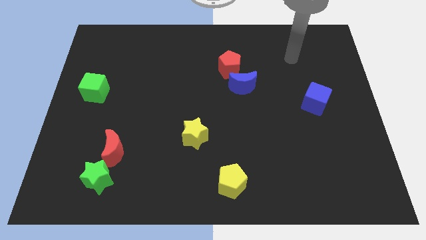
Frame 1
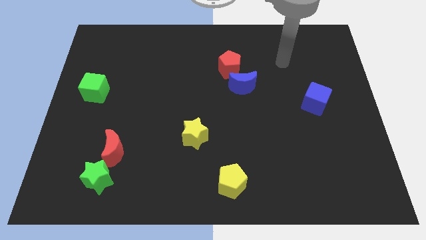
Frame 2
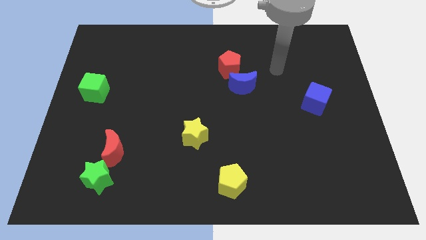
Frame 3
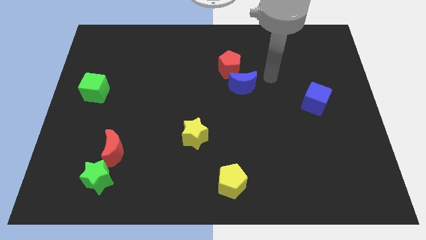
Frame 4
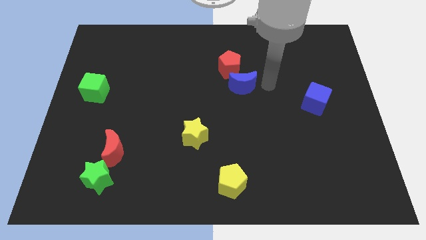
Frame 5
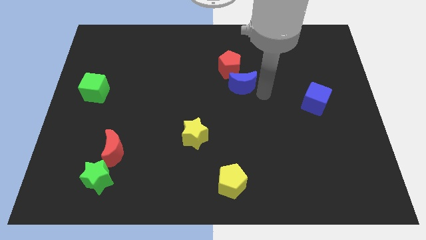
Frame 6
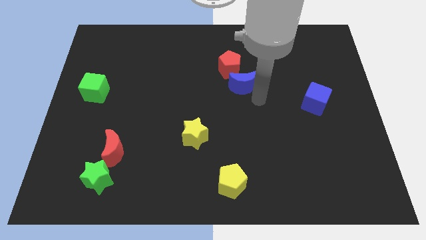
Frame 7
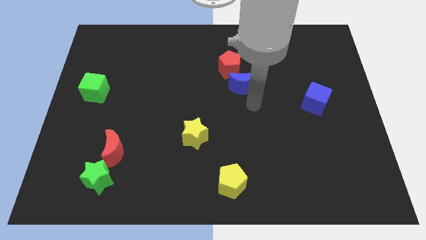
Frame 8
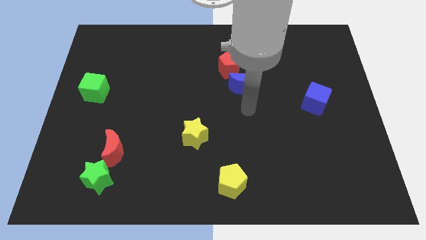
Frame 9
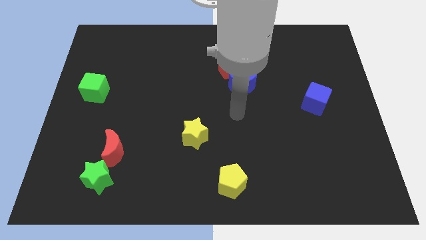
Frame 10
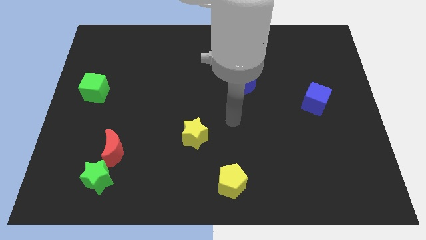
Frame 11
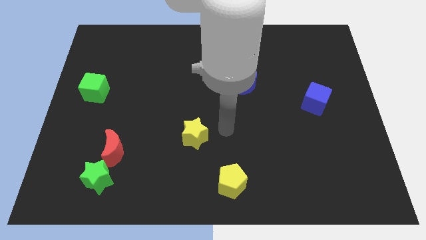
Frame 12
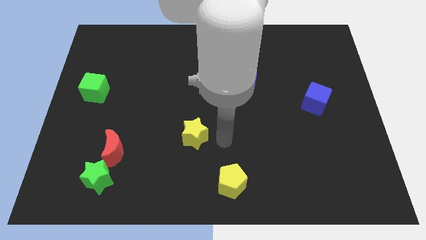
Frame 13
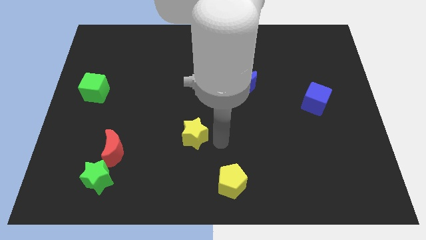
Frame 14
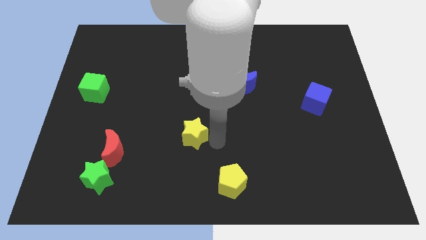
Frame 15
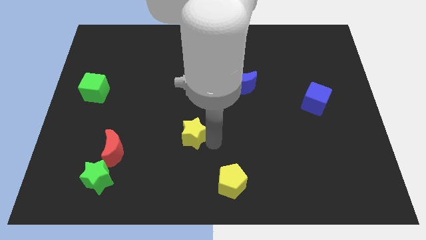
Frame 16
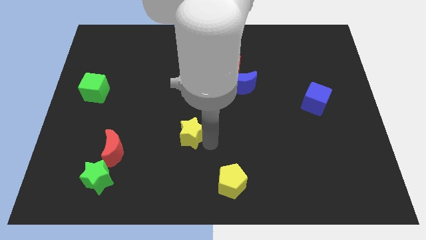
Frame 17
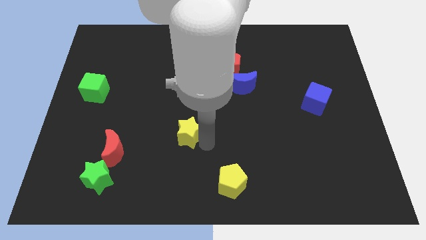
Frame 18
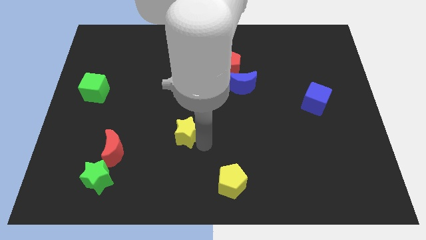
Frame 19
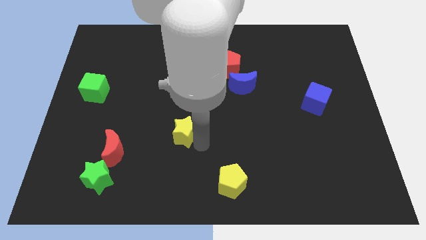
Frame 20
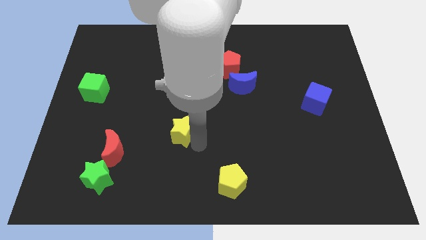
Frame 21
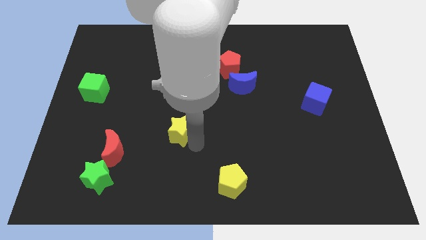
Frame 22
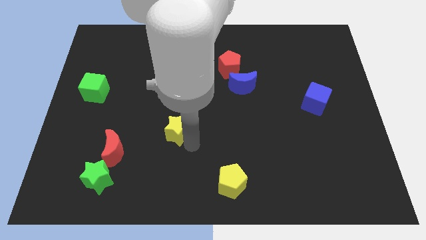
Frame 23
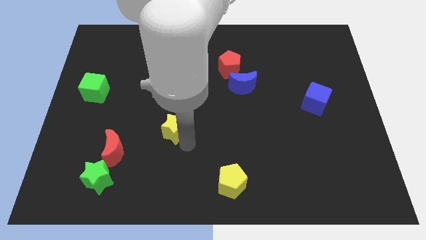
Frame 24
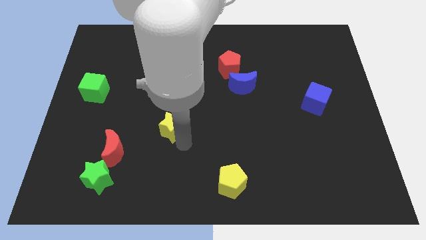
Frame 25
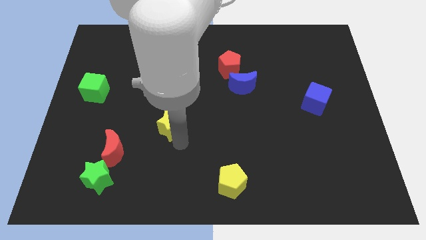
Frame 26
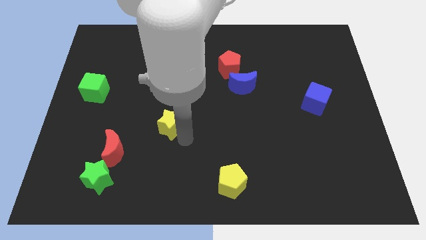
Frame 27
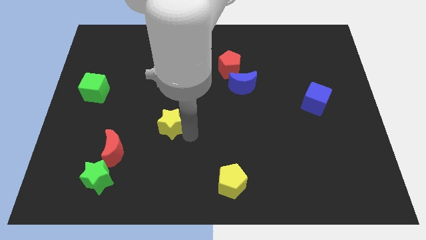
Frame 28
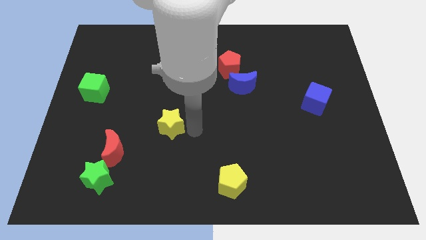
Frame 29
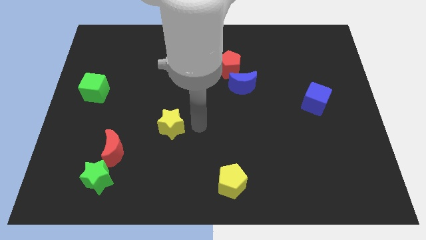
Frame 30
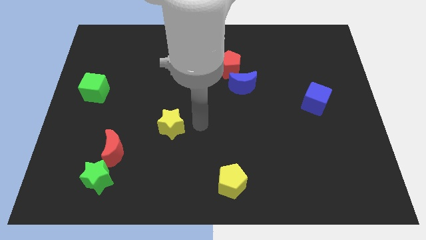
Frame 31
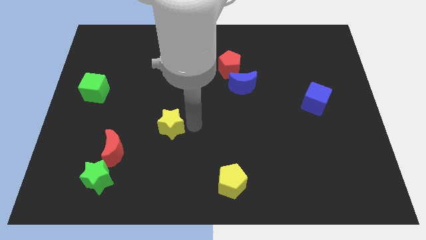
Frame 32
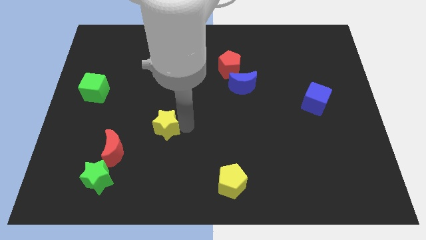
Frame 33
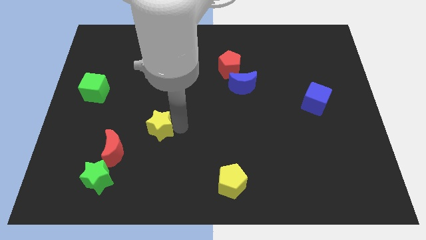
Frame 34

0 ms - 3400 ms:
slightly push the yellow star left

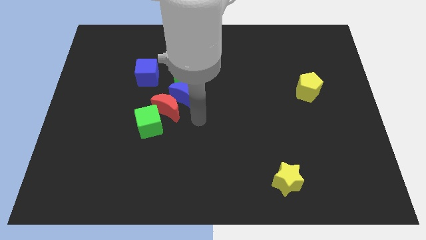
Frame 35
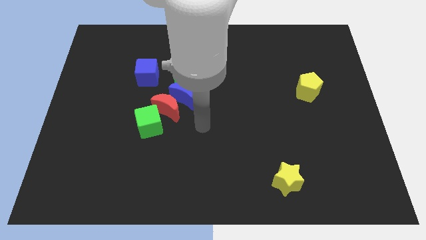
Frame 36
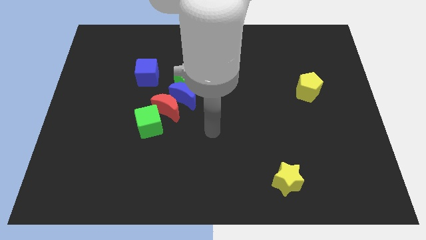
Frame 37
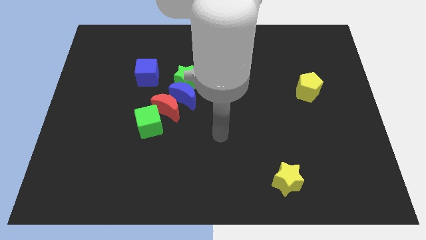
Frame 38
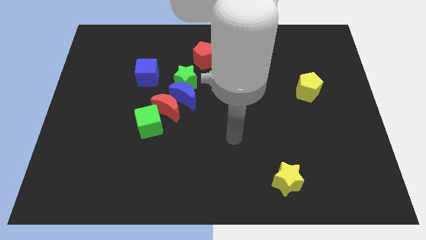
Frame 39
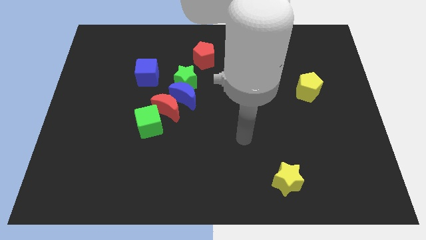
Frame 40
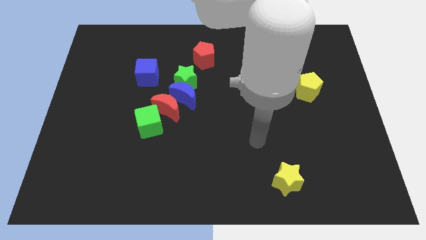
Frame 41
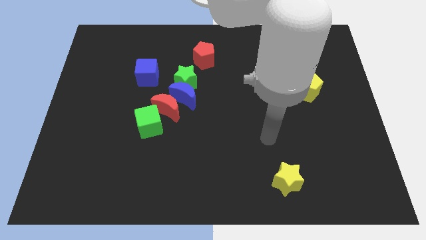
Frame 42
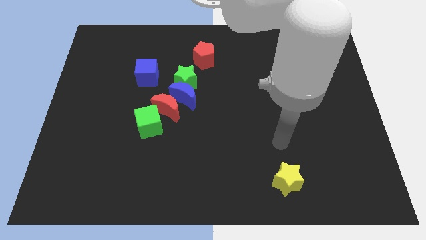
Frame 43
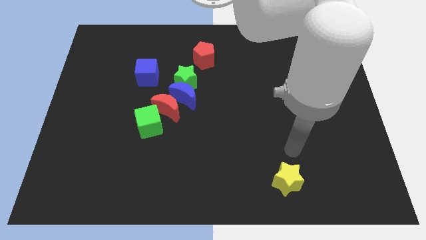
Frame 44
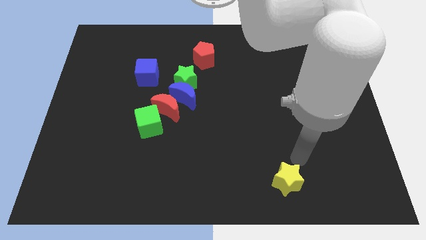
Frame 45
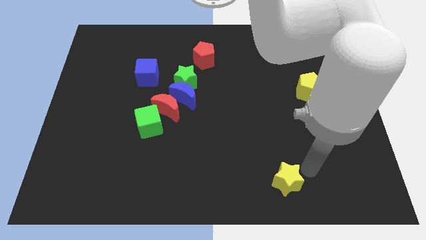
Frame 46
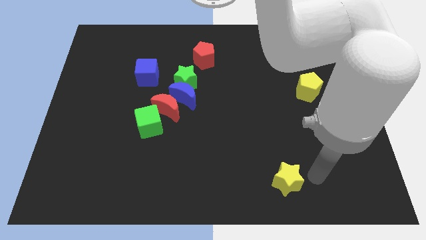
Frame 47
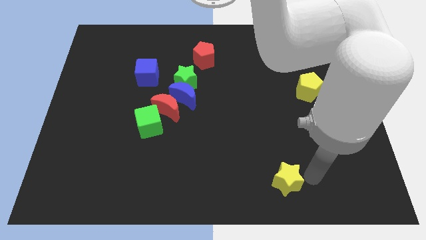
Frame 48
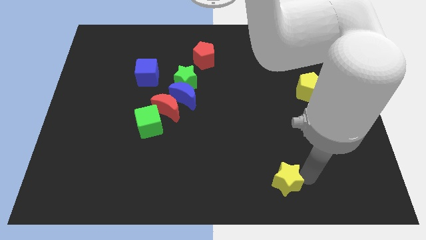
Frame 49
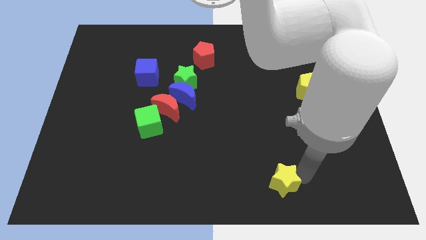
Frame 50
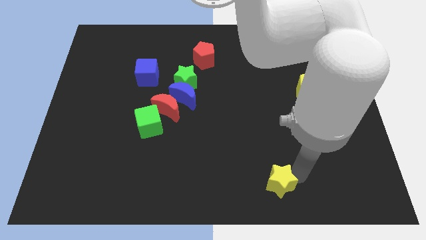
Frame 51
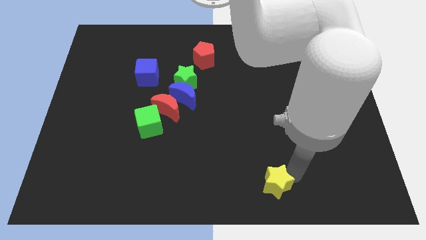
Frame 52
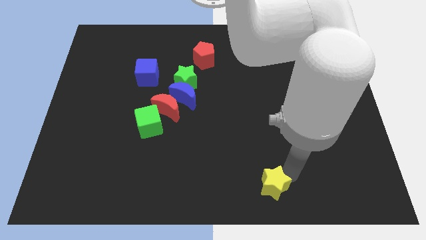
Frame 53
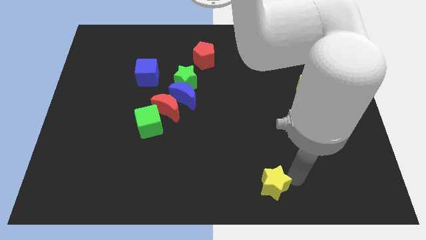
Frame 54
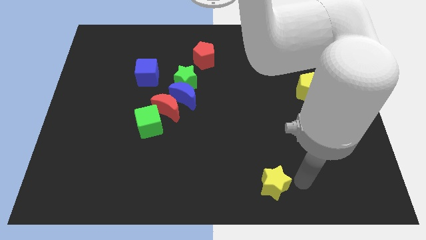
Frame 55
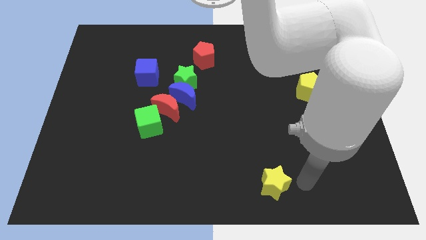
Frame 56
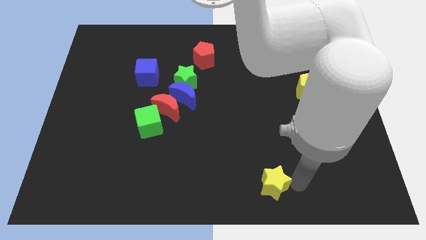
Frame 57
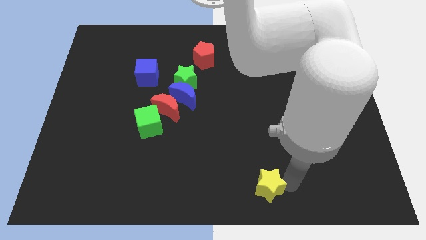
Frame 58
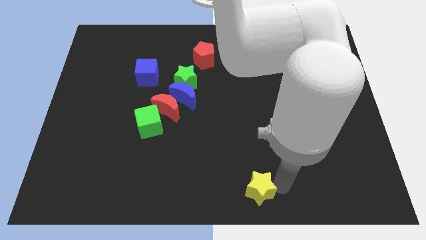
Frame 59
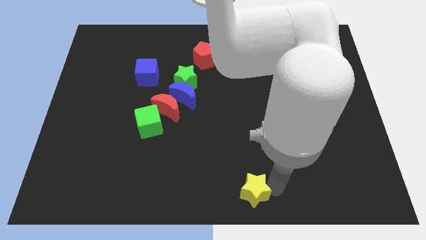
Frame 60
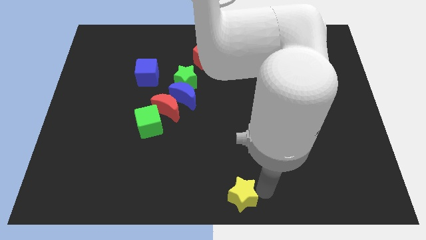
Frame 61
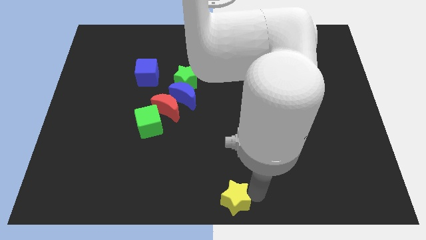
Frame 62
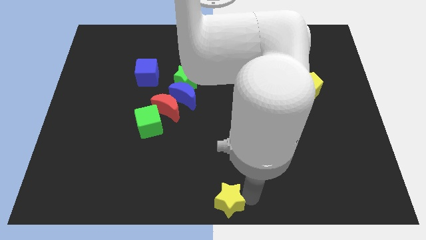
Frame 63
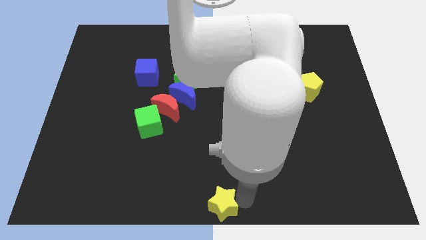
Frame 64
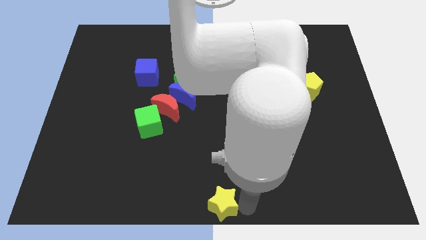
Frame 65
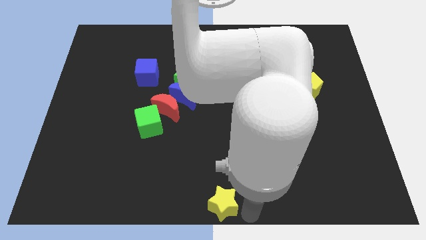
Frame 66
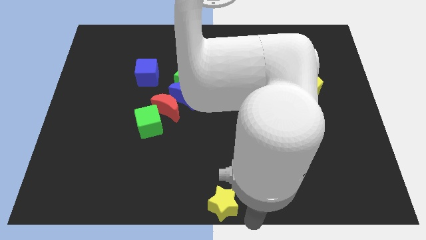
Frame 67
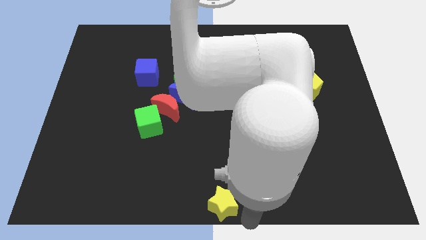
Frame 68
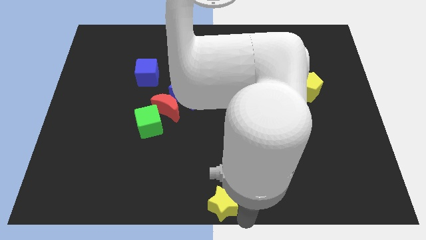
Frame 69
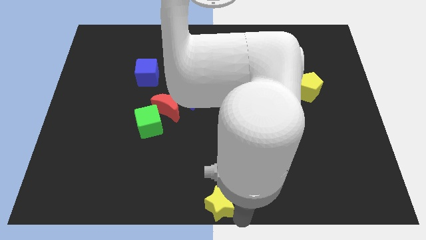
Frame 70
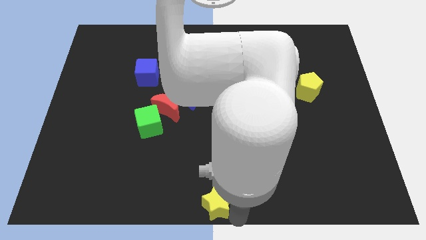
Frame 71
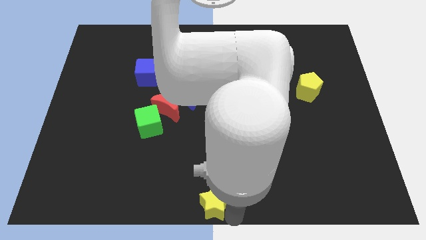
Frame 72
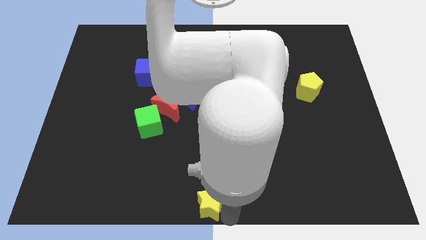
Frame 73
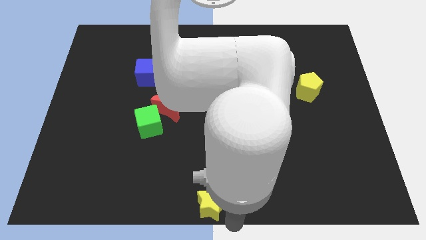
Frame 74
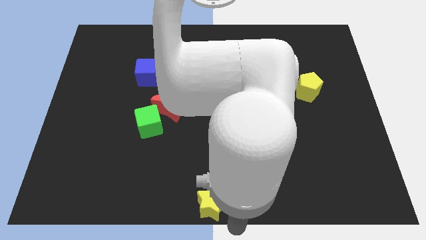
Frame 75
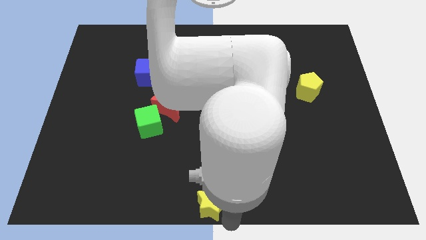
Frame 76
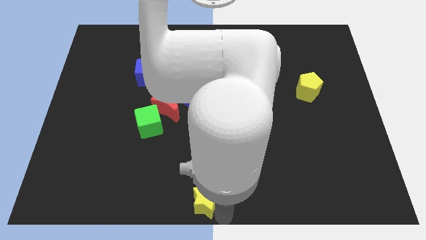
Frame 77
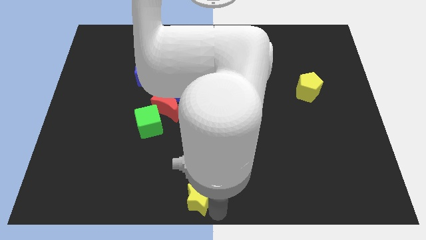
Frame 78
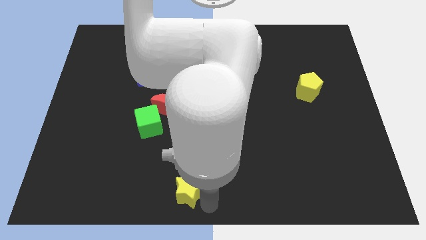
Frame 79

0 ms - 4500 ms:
slide the yellow star left

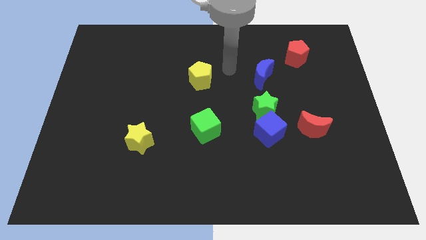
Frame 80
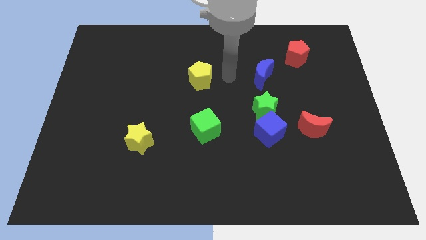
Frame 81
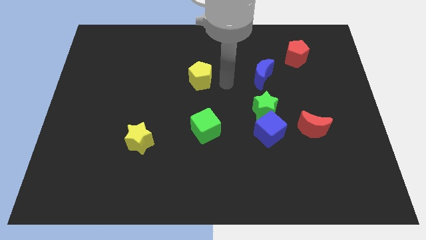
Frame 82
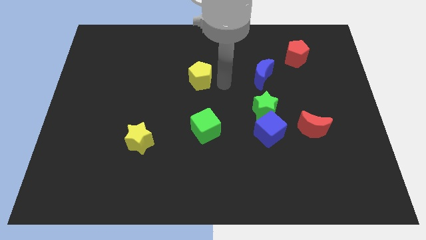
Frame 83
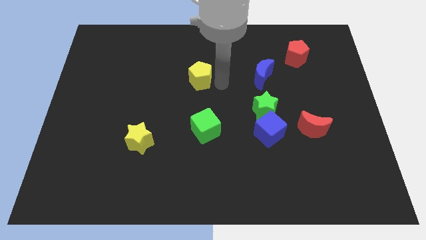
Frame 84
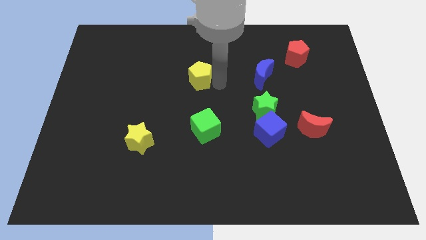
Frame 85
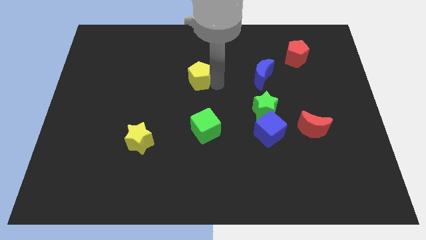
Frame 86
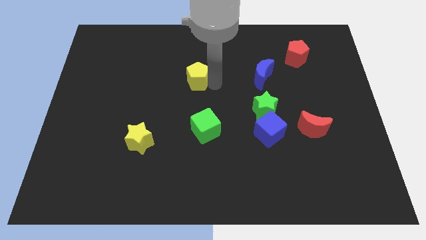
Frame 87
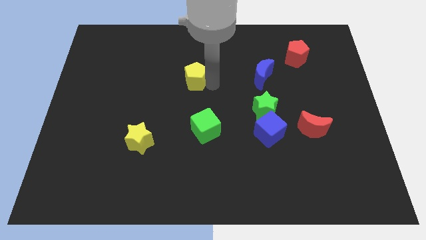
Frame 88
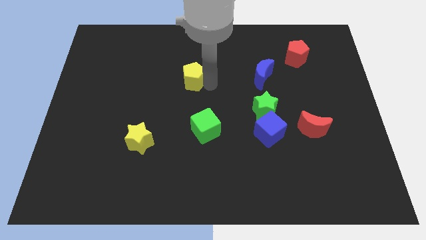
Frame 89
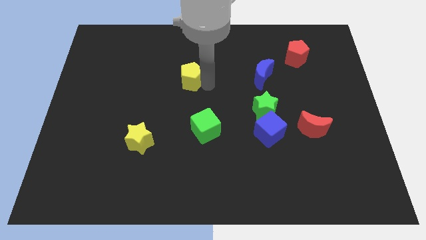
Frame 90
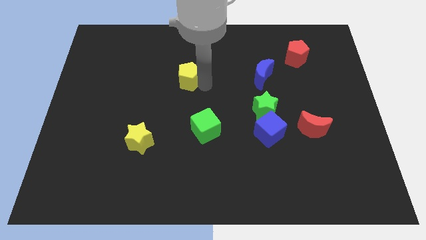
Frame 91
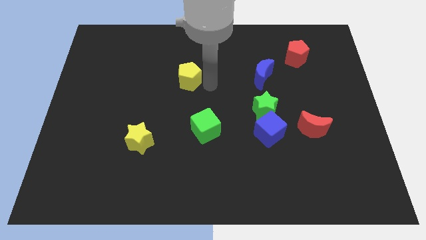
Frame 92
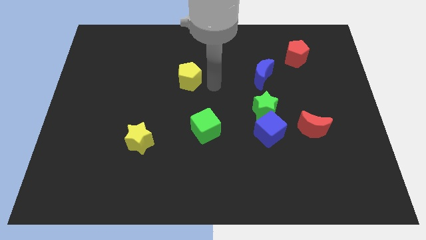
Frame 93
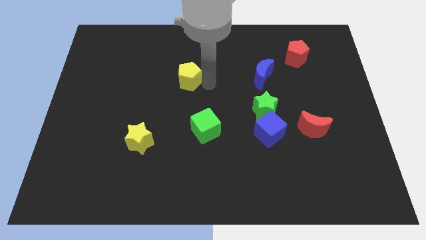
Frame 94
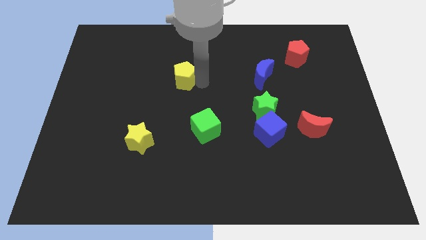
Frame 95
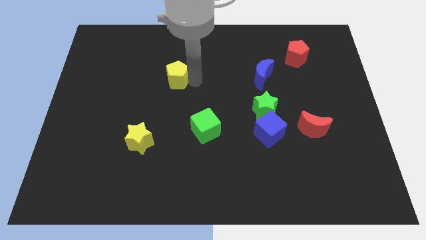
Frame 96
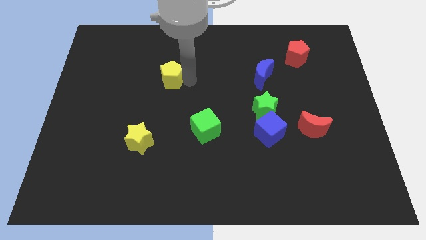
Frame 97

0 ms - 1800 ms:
slightly slide the yellow pentagon to the left
